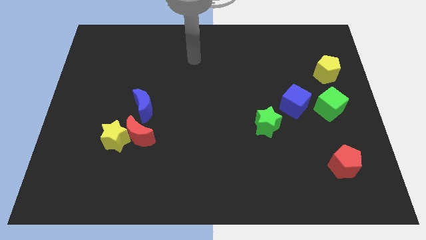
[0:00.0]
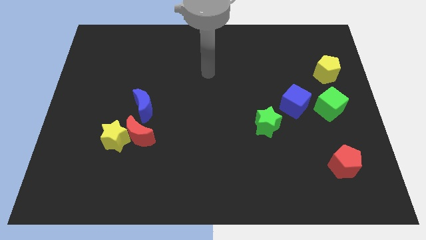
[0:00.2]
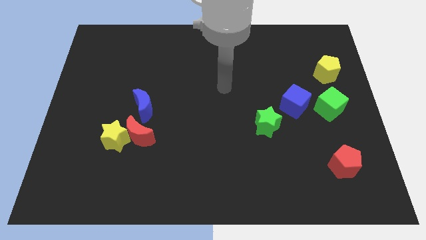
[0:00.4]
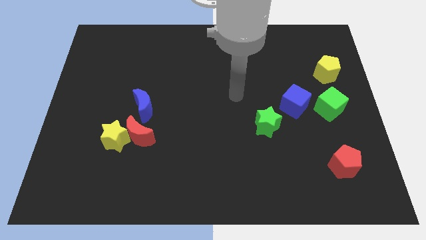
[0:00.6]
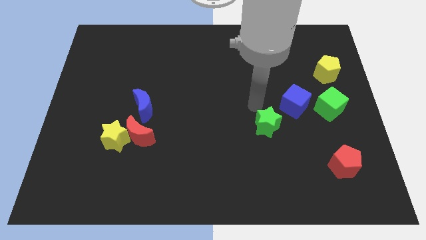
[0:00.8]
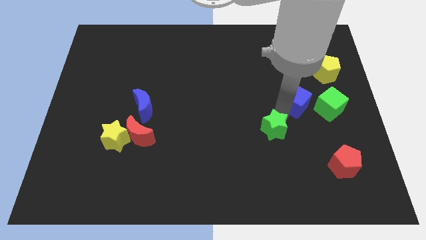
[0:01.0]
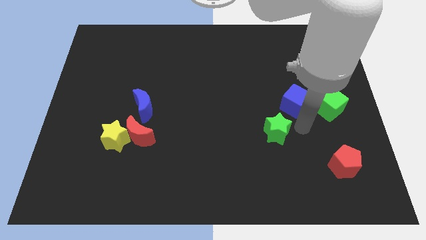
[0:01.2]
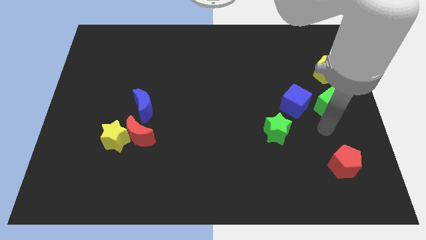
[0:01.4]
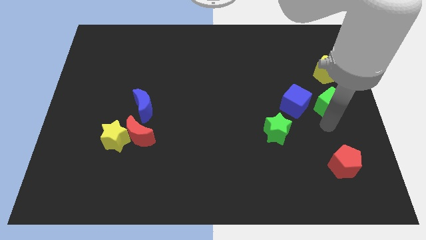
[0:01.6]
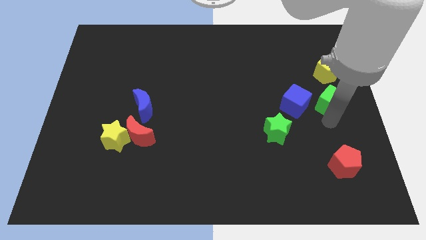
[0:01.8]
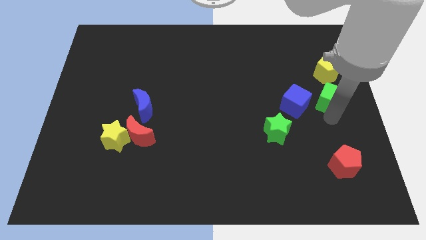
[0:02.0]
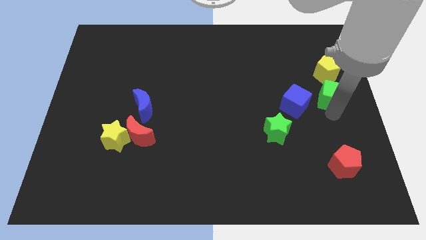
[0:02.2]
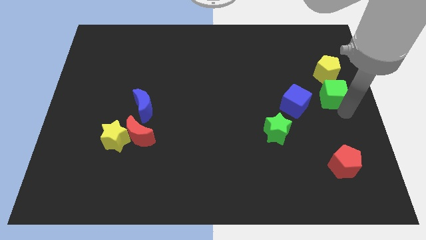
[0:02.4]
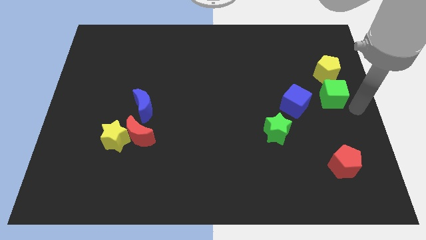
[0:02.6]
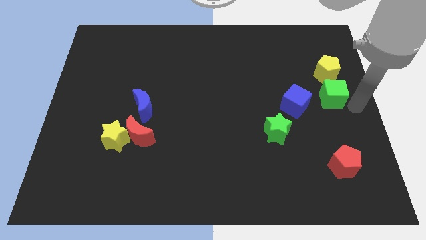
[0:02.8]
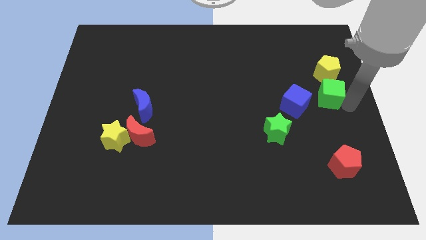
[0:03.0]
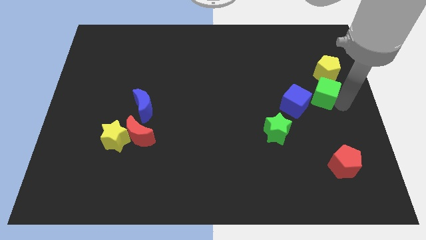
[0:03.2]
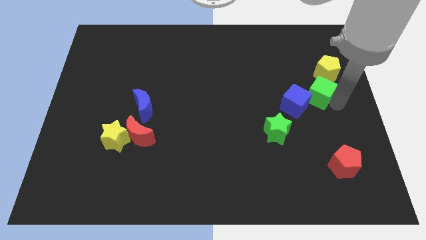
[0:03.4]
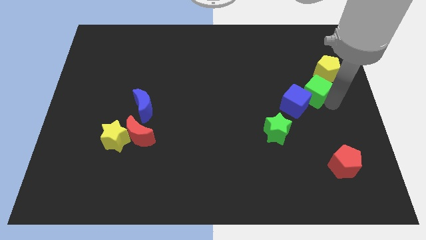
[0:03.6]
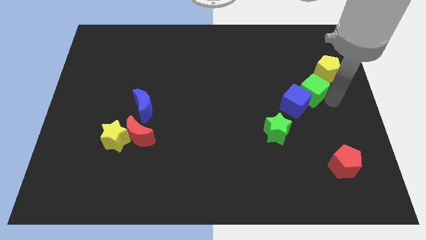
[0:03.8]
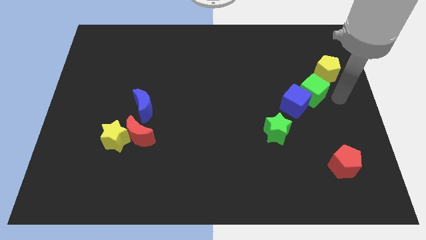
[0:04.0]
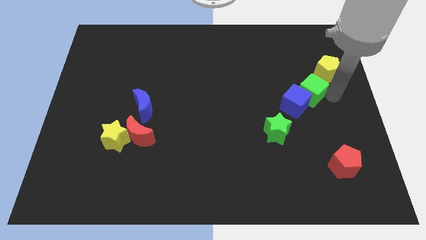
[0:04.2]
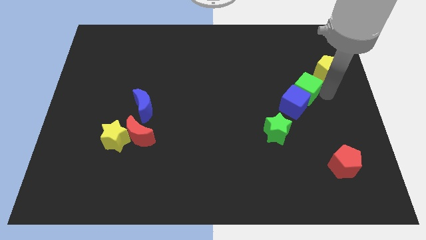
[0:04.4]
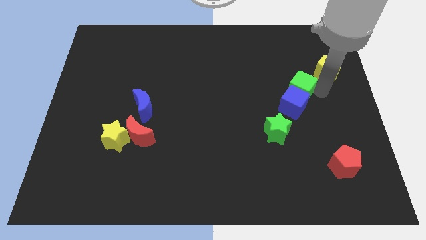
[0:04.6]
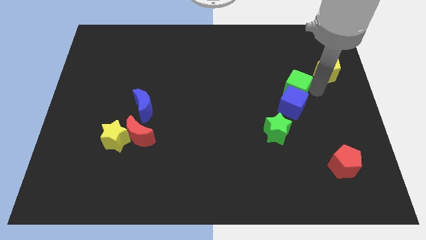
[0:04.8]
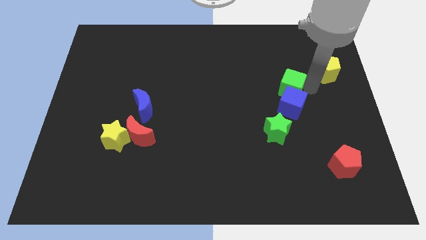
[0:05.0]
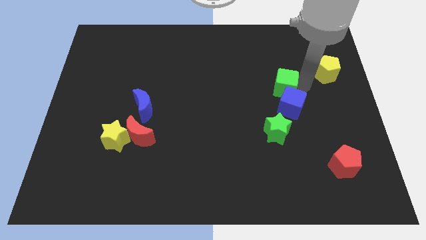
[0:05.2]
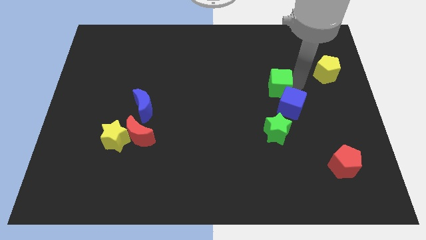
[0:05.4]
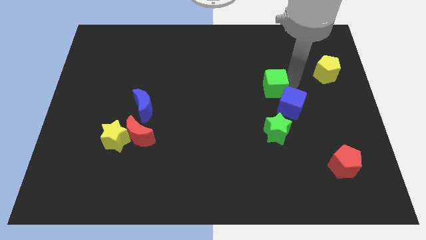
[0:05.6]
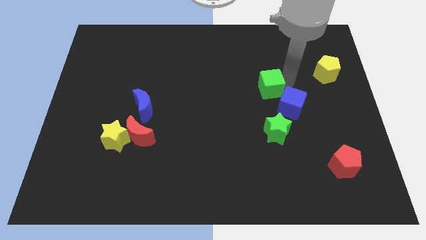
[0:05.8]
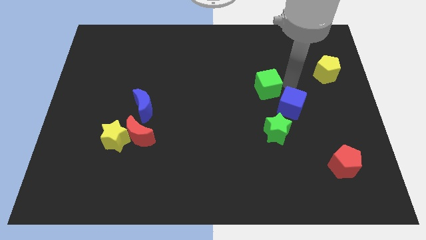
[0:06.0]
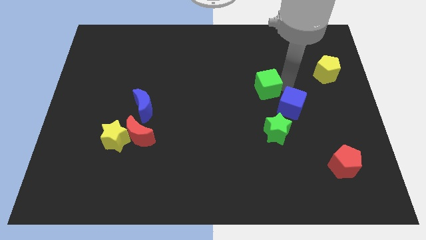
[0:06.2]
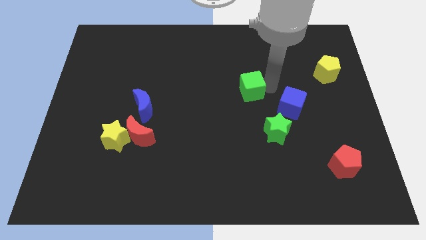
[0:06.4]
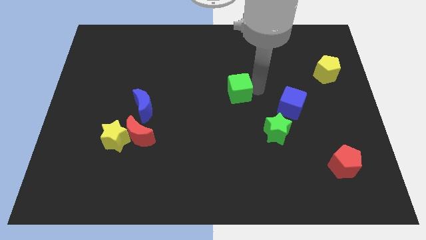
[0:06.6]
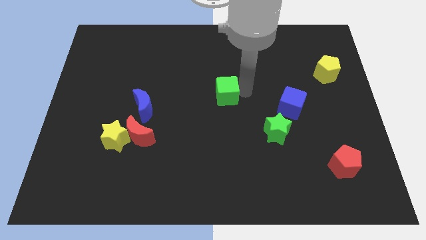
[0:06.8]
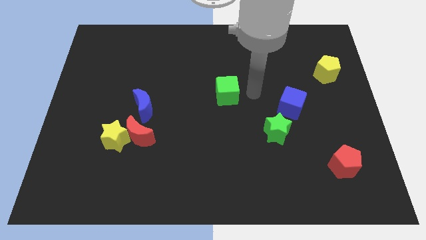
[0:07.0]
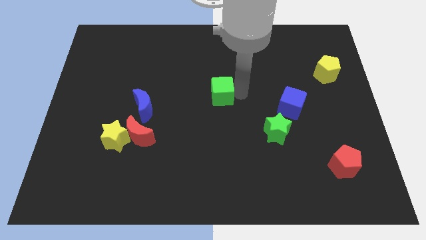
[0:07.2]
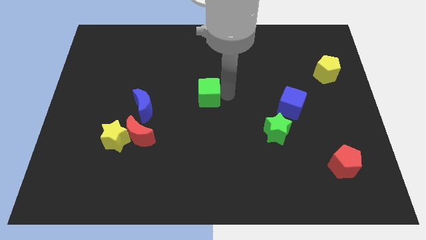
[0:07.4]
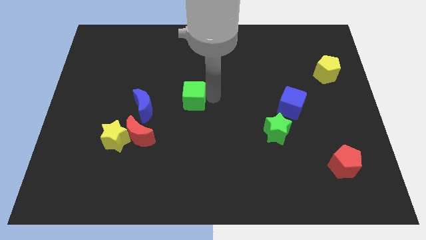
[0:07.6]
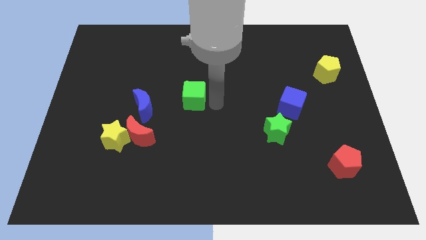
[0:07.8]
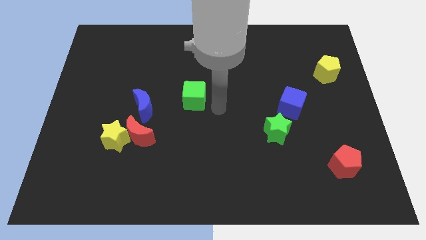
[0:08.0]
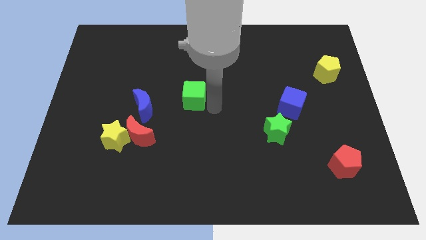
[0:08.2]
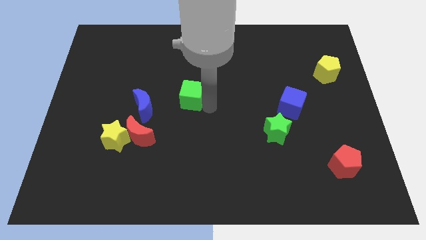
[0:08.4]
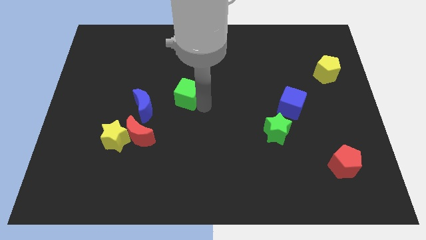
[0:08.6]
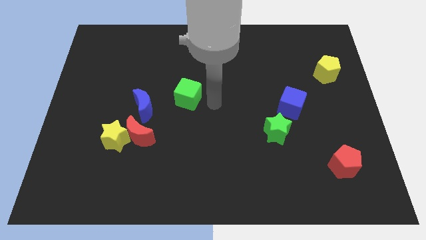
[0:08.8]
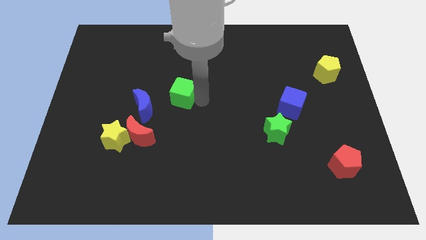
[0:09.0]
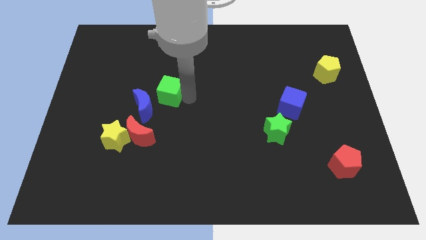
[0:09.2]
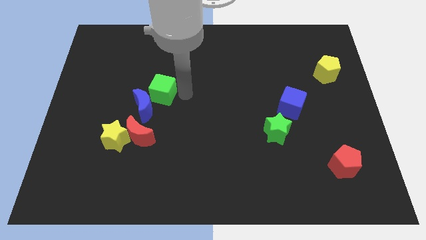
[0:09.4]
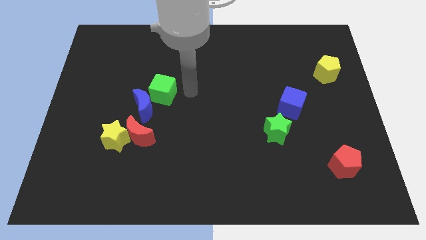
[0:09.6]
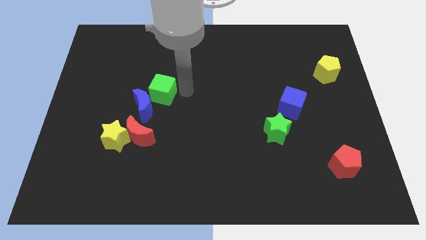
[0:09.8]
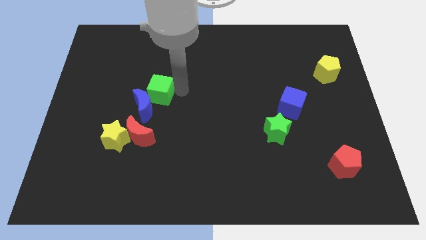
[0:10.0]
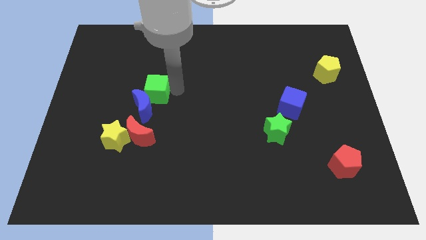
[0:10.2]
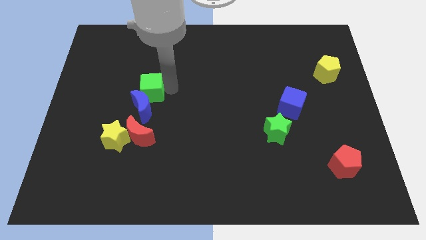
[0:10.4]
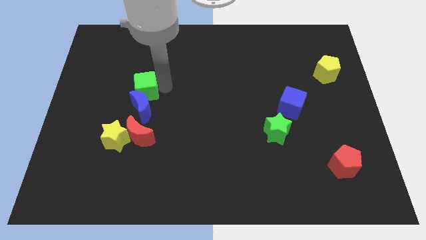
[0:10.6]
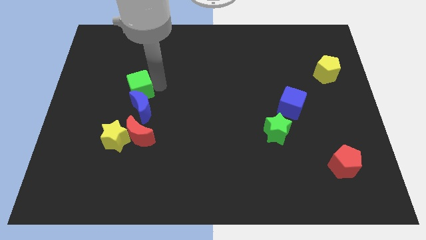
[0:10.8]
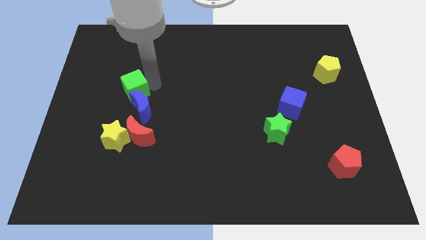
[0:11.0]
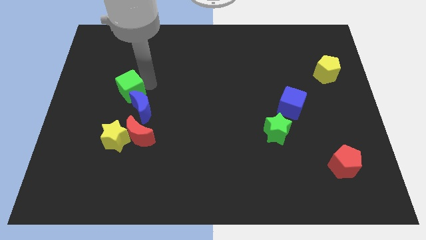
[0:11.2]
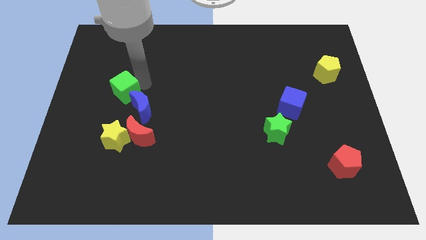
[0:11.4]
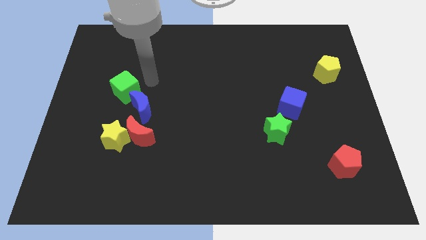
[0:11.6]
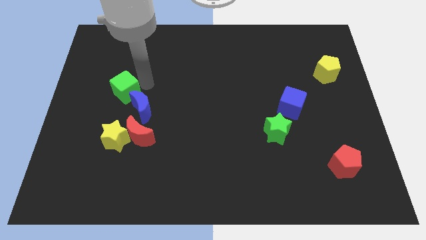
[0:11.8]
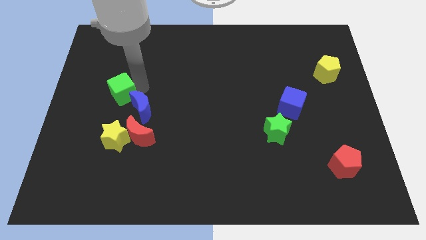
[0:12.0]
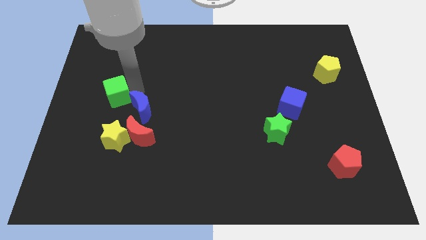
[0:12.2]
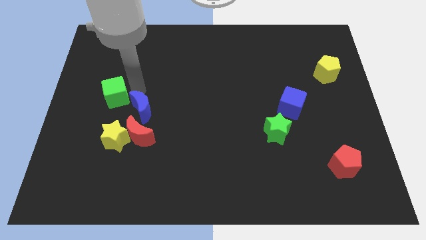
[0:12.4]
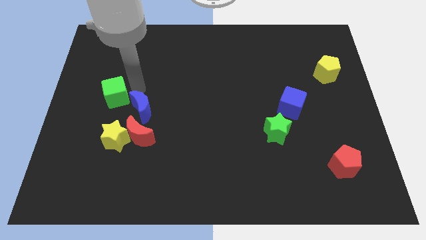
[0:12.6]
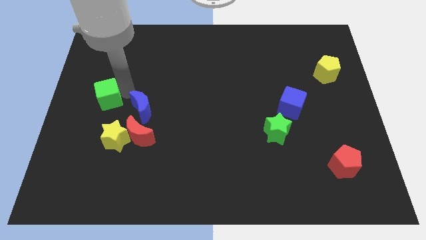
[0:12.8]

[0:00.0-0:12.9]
push the green cube to the center left
